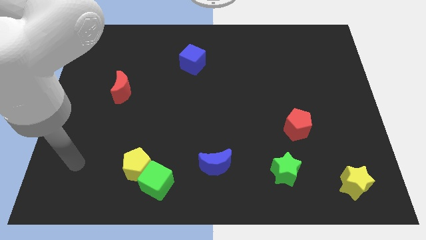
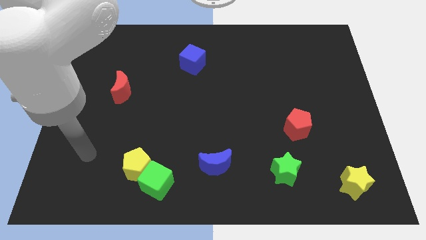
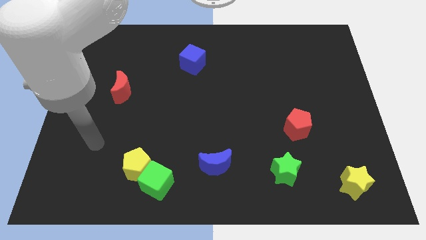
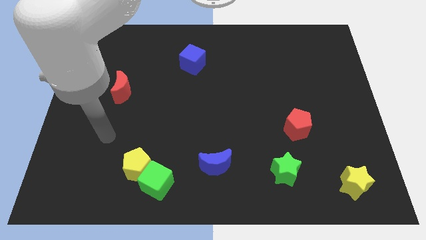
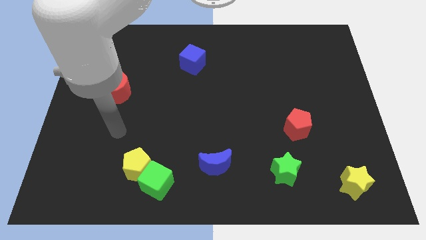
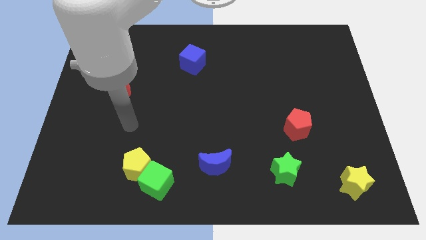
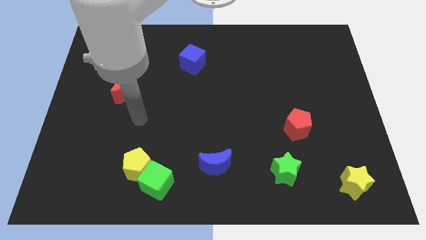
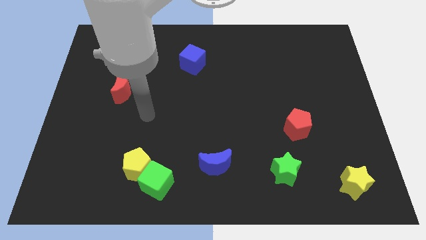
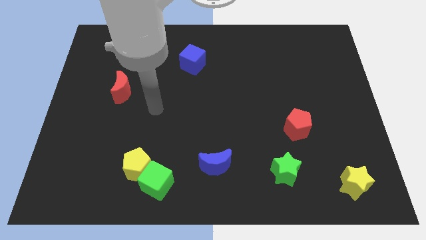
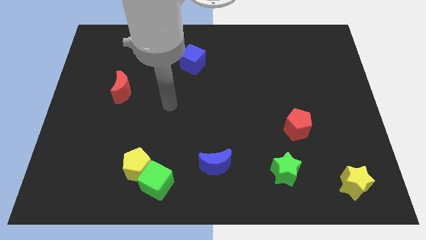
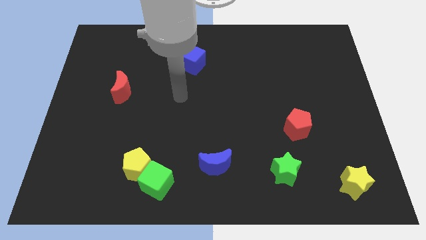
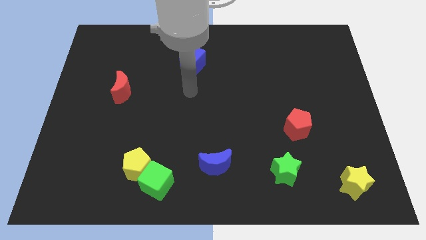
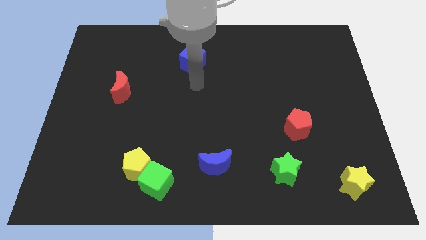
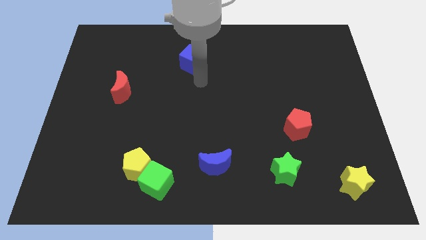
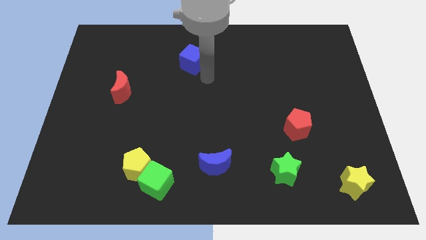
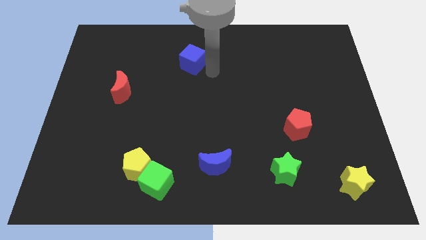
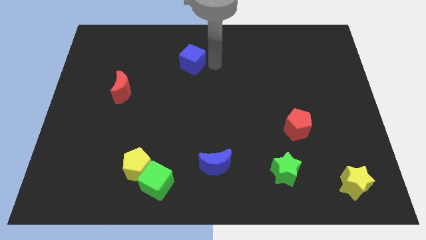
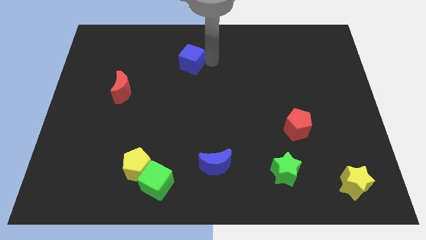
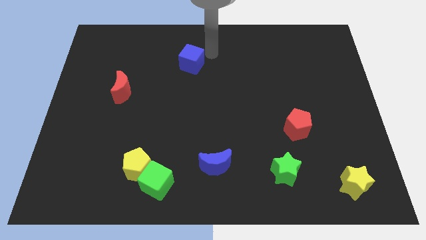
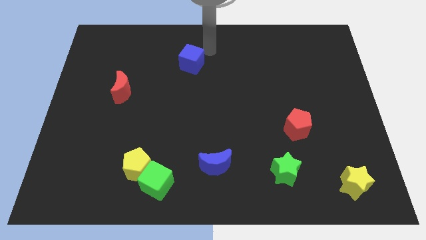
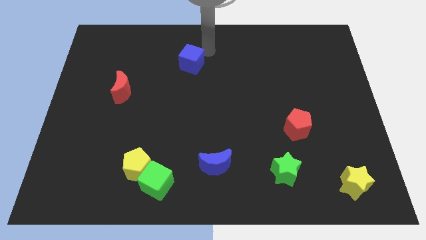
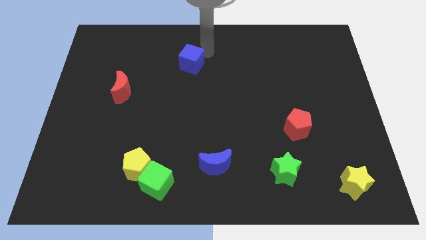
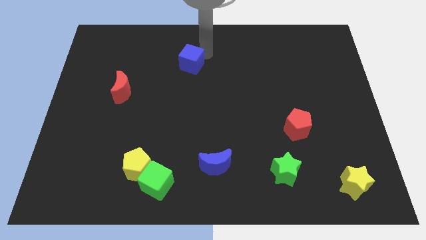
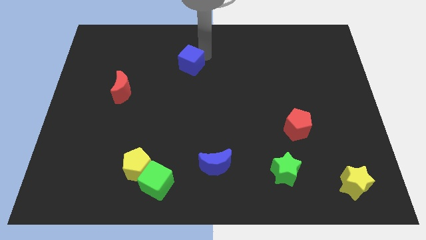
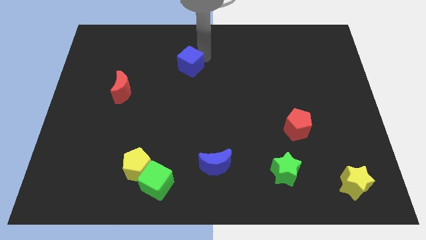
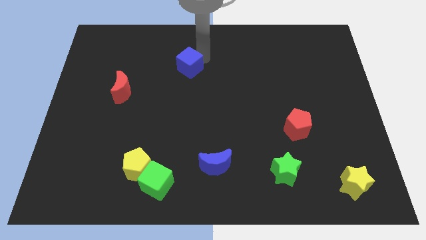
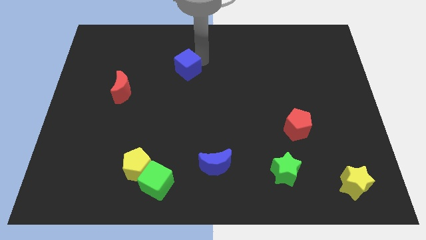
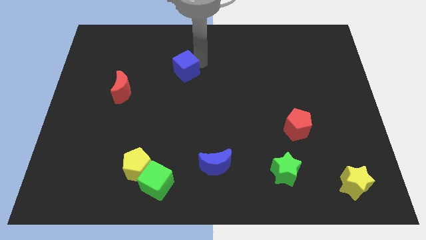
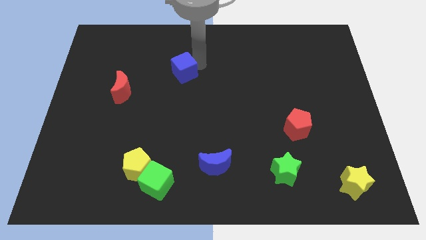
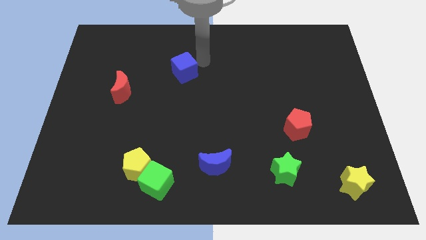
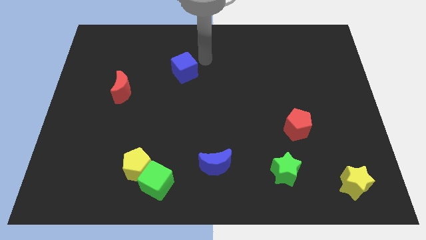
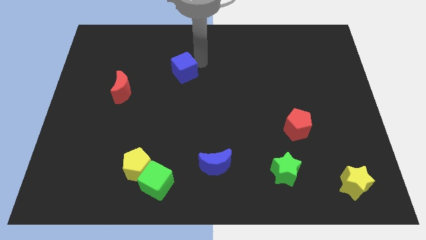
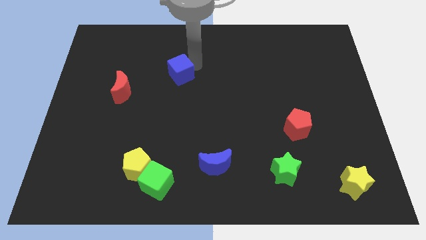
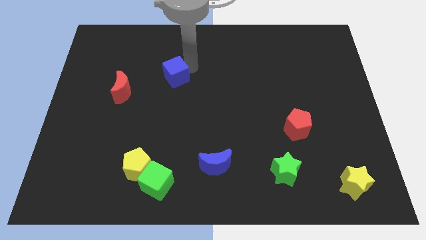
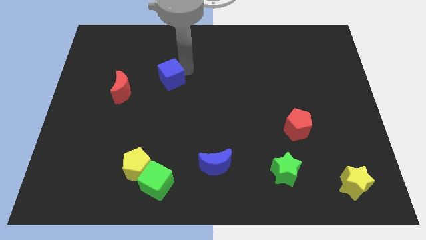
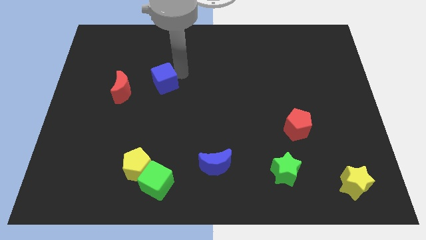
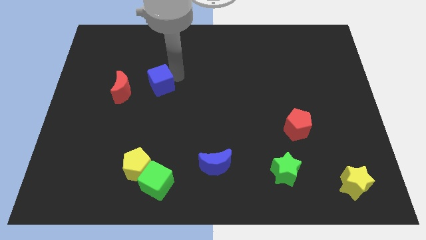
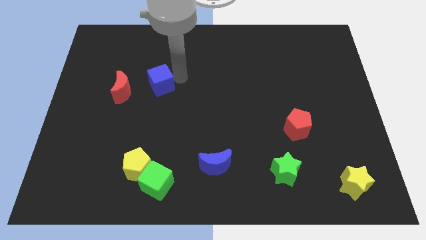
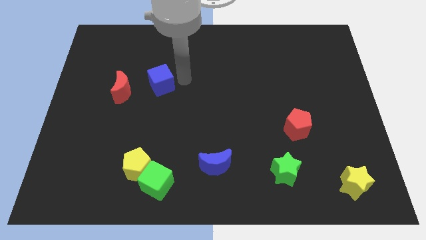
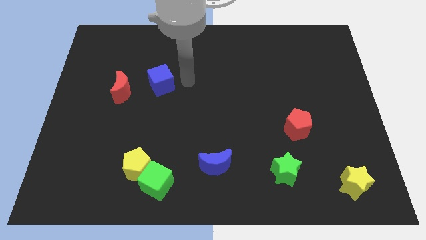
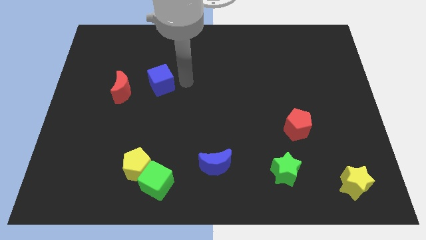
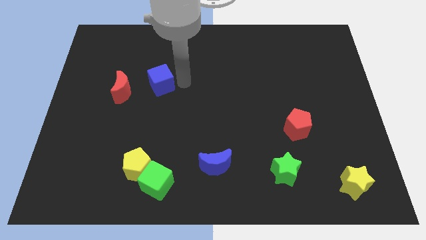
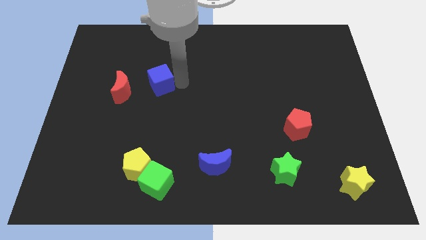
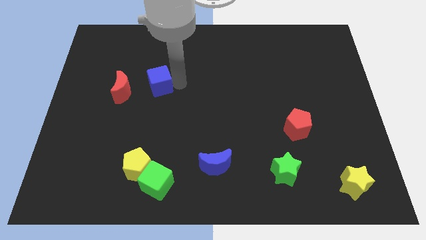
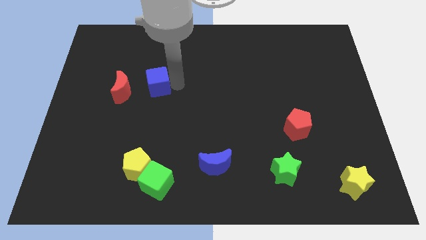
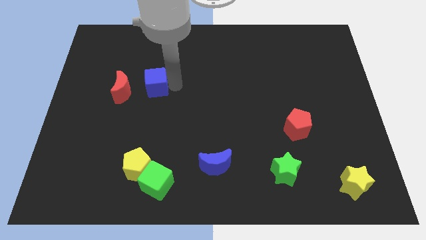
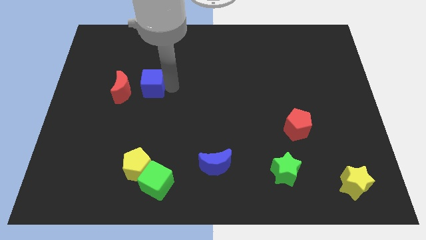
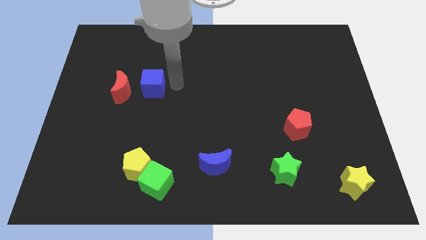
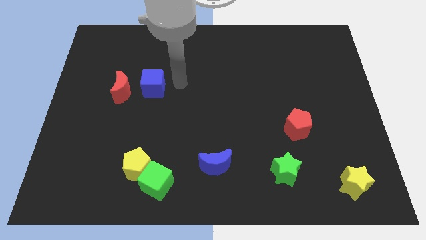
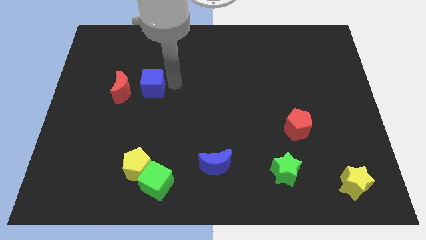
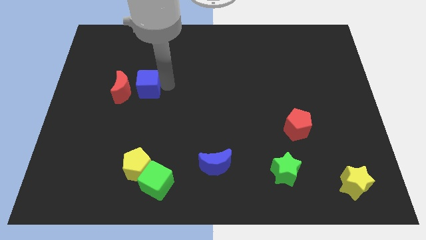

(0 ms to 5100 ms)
slide the blue cube to the red moon

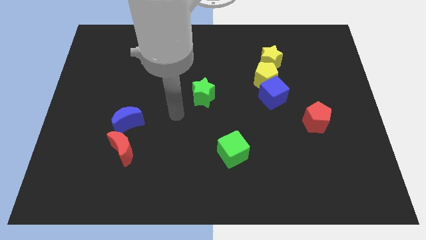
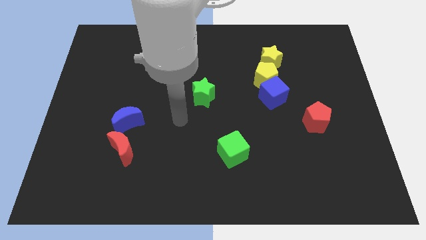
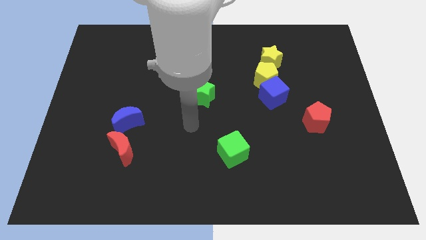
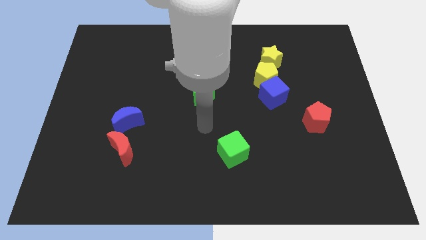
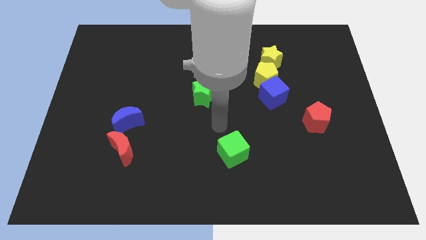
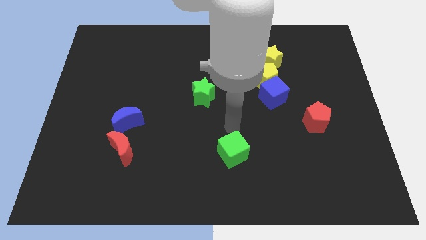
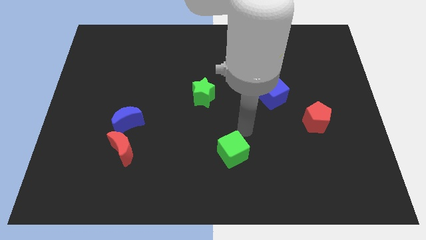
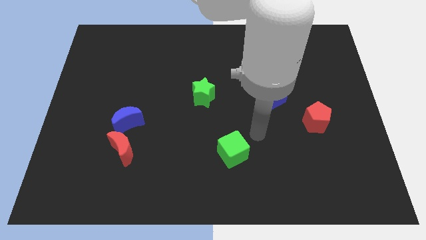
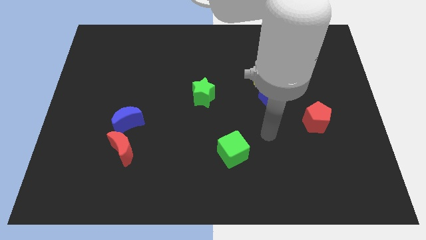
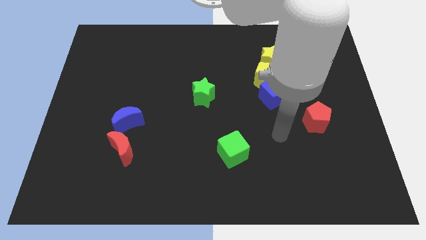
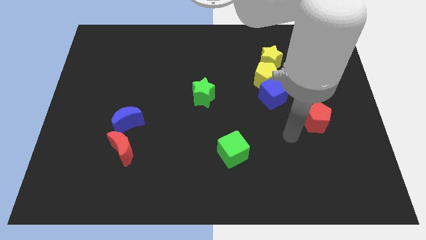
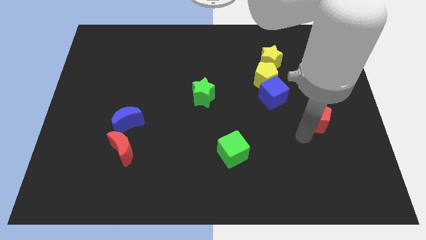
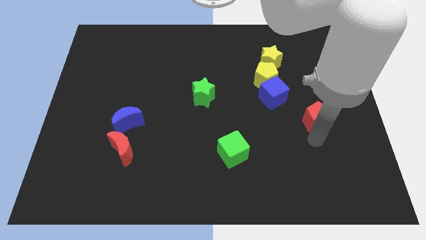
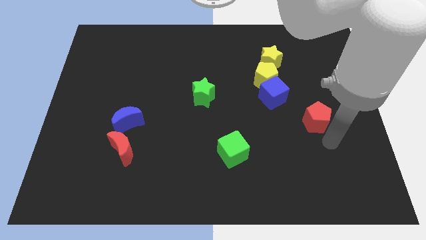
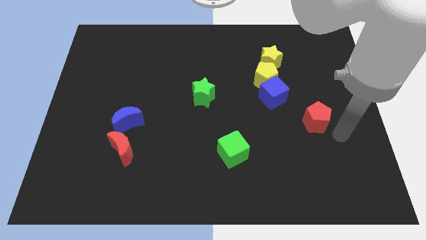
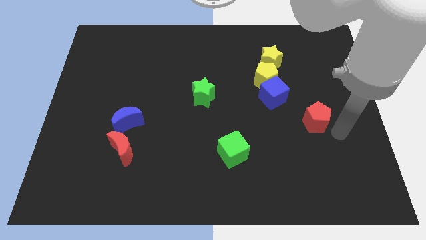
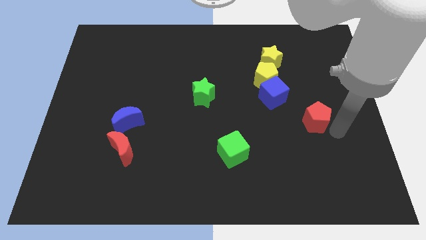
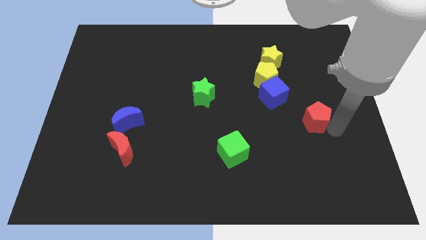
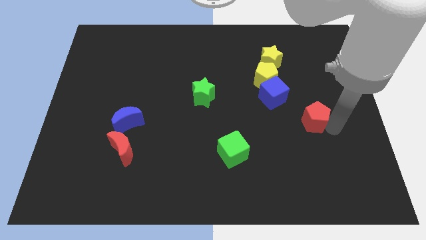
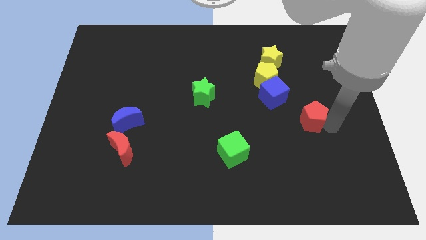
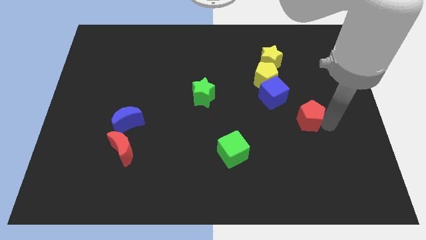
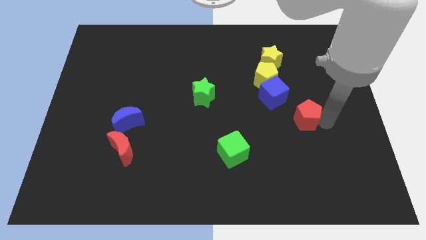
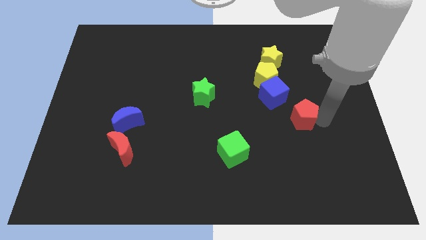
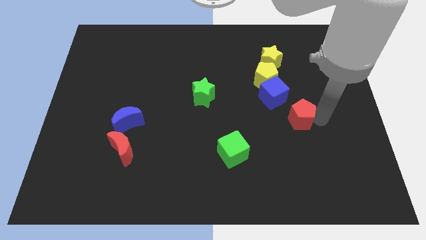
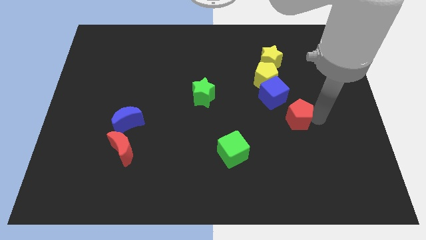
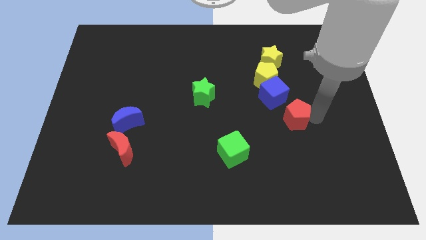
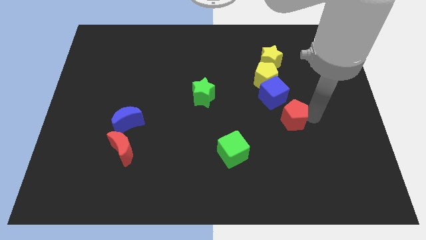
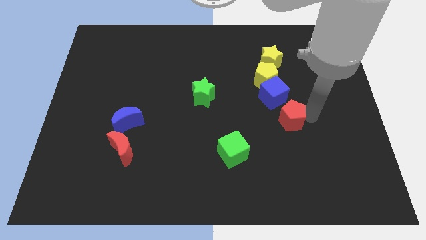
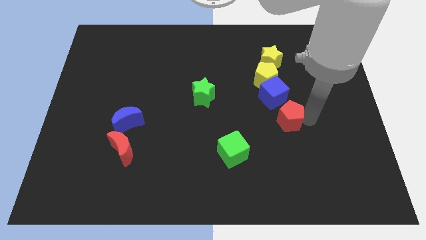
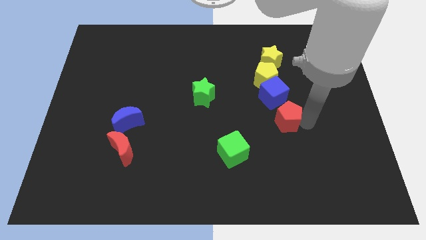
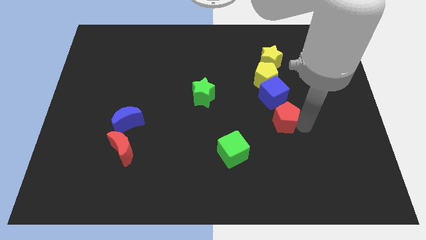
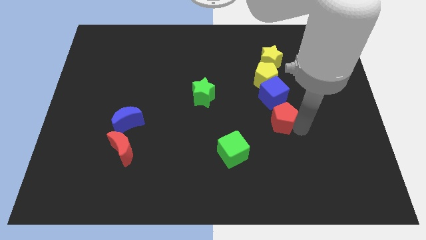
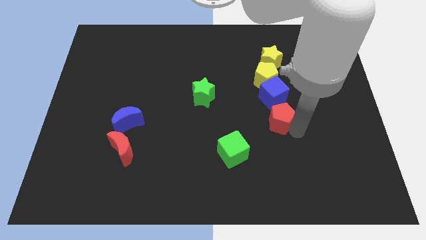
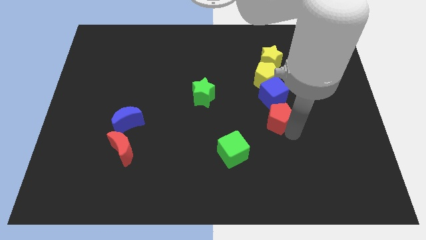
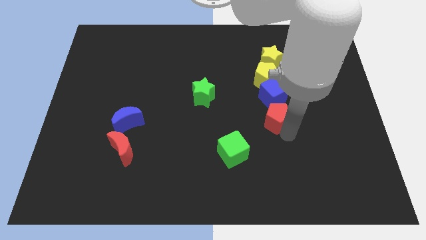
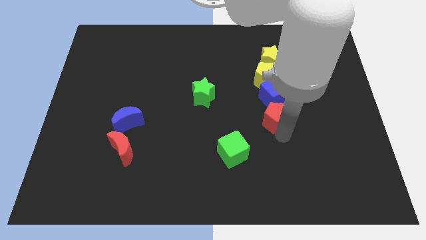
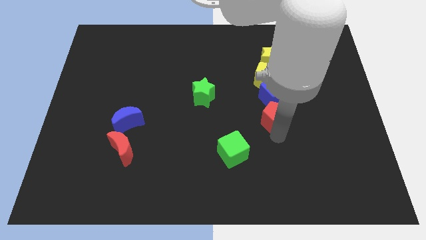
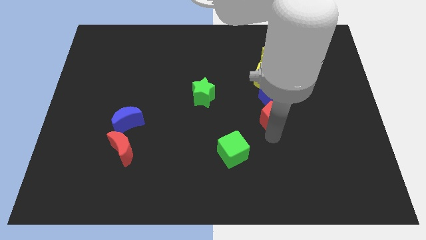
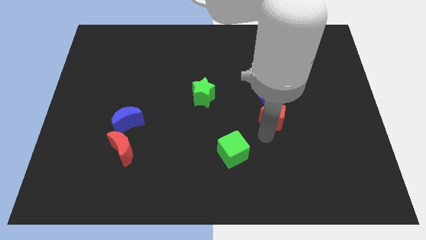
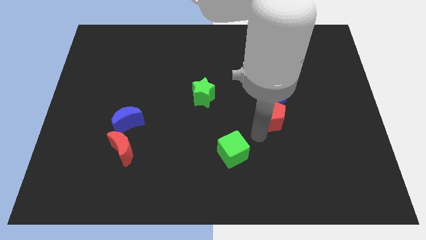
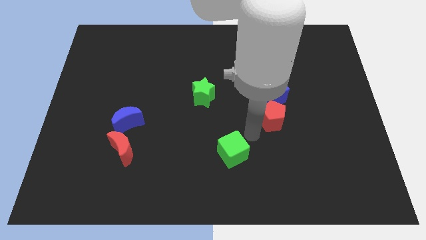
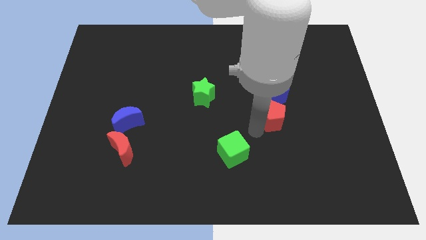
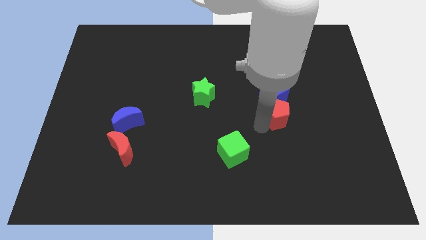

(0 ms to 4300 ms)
move the red pentagon next to the blue cube
